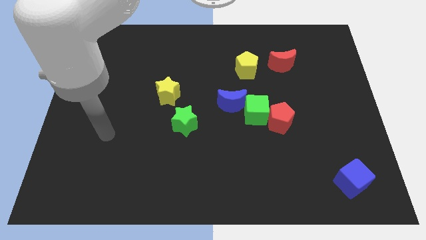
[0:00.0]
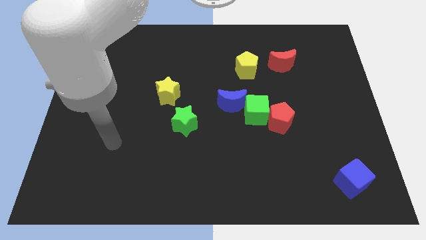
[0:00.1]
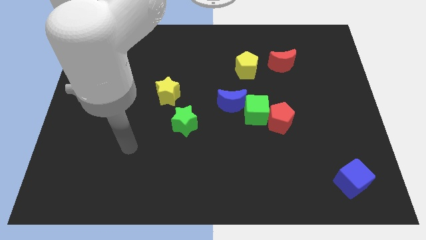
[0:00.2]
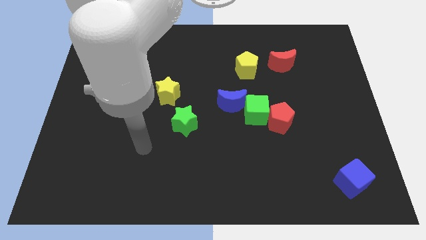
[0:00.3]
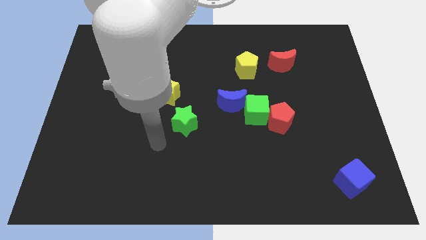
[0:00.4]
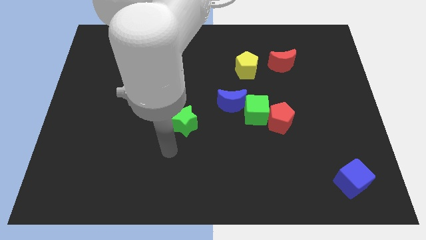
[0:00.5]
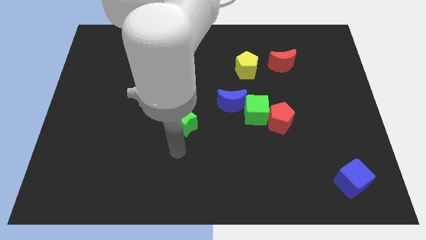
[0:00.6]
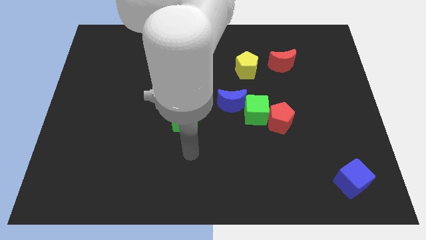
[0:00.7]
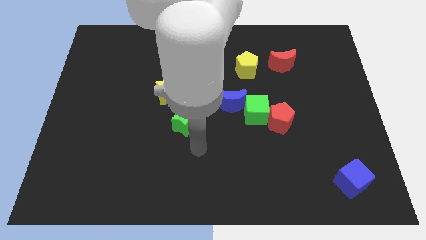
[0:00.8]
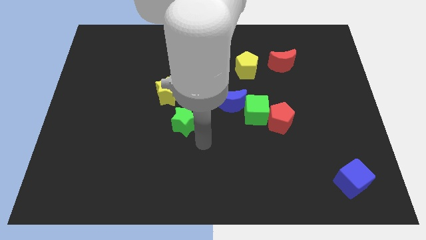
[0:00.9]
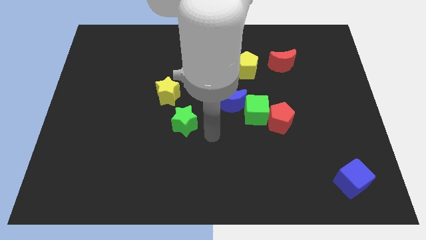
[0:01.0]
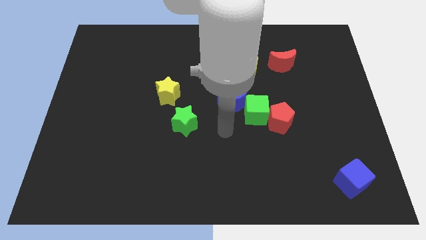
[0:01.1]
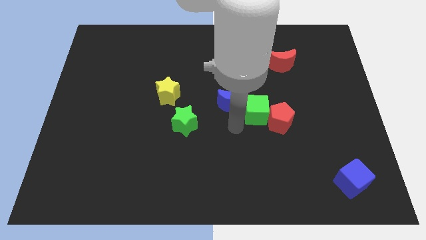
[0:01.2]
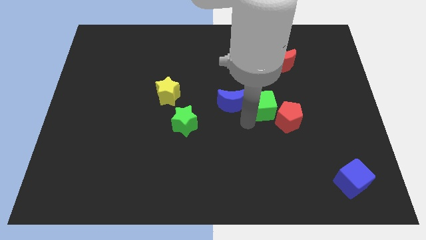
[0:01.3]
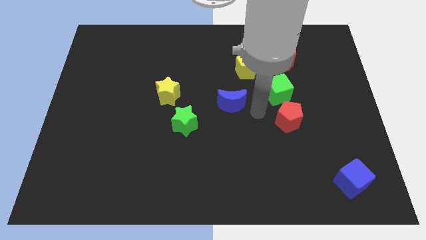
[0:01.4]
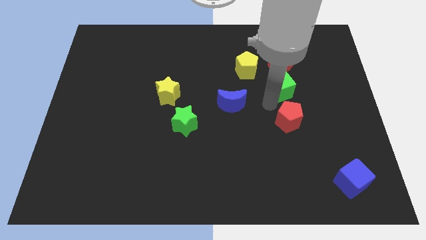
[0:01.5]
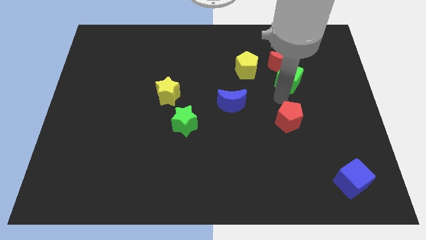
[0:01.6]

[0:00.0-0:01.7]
move the red pentagon away from the green cube

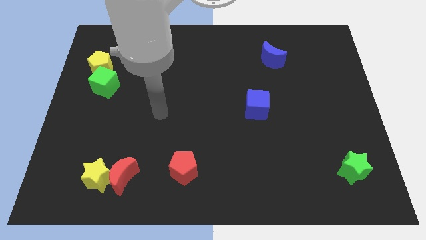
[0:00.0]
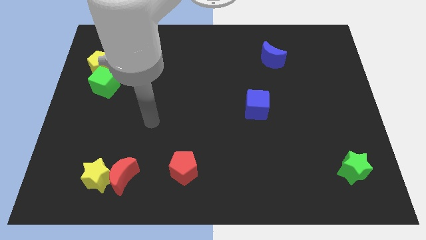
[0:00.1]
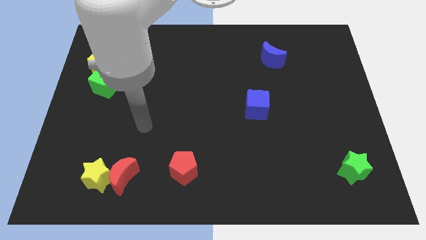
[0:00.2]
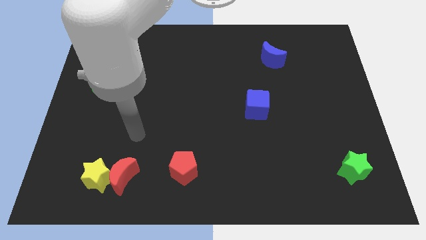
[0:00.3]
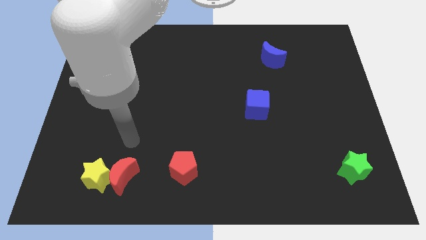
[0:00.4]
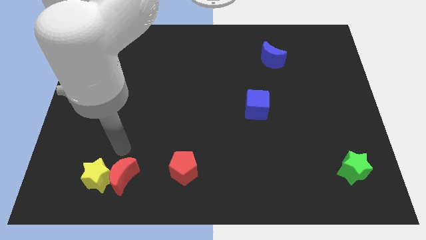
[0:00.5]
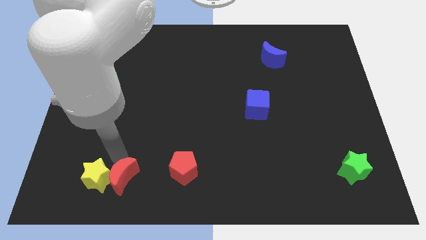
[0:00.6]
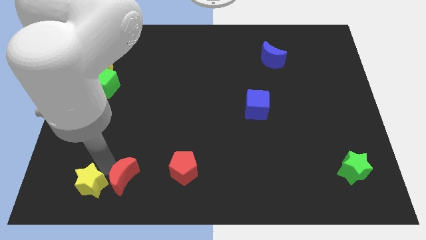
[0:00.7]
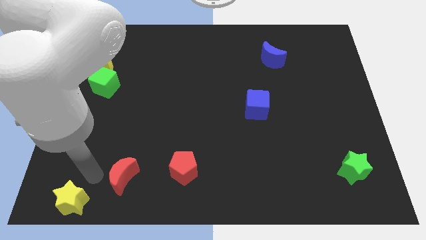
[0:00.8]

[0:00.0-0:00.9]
move the red moon away from the yellow star

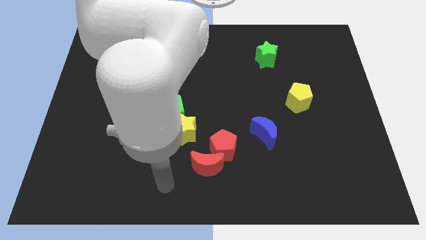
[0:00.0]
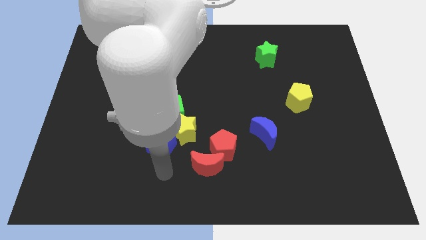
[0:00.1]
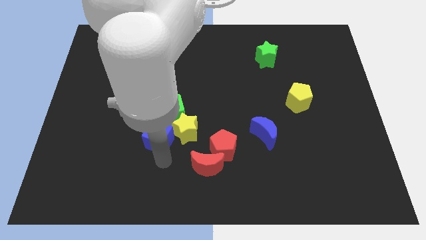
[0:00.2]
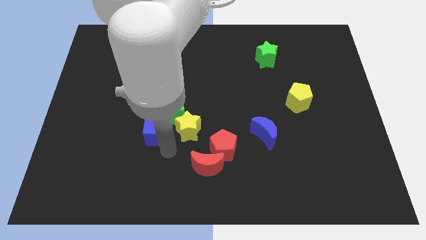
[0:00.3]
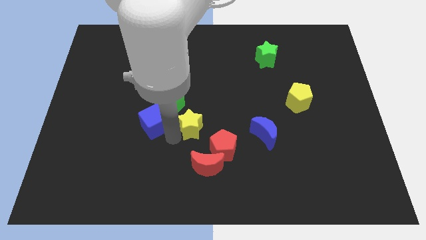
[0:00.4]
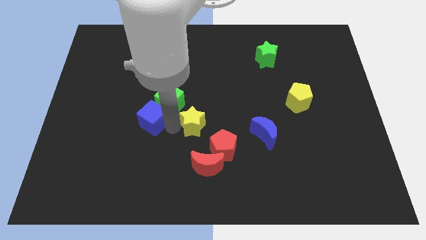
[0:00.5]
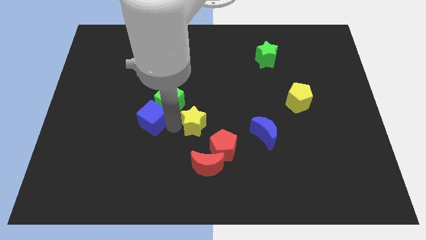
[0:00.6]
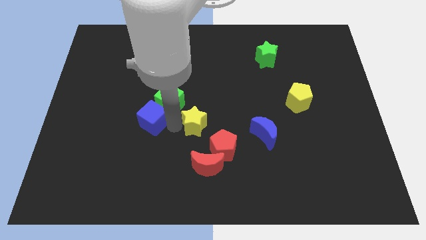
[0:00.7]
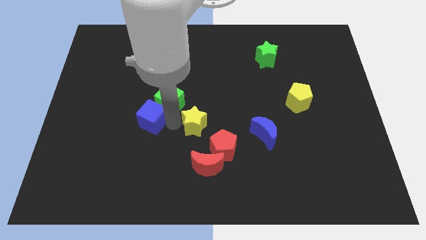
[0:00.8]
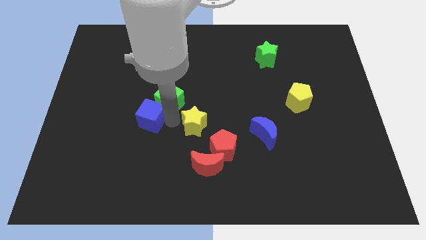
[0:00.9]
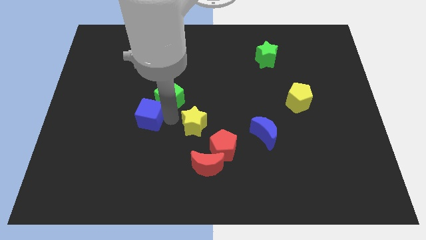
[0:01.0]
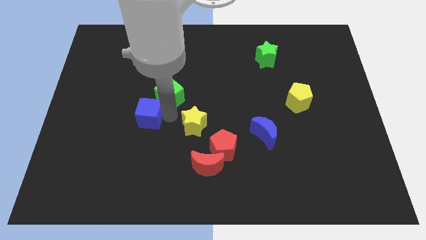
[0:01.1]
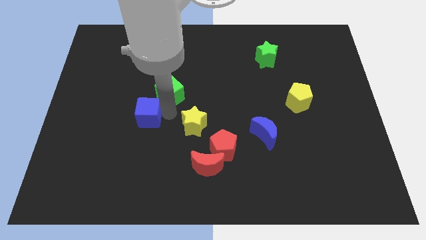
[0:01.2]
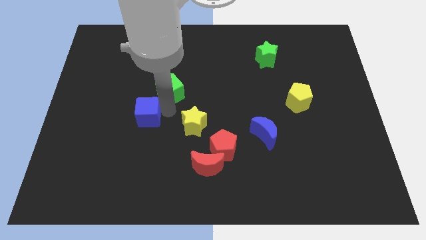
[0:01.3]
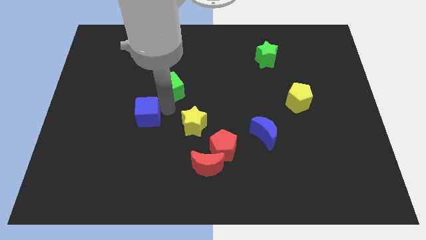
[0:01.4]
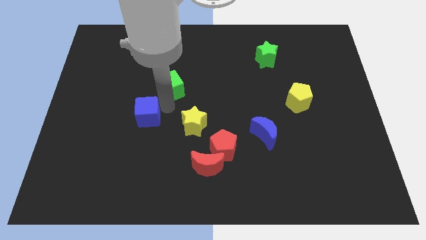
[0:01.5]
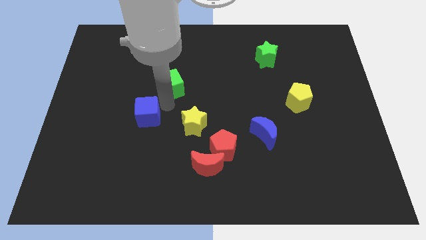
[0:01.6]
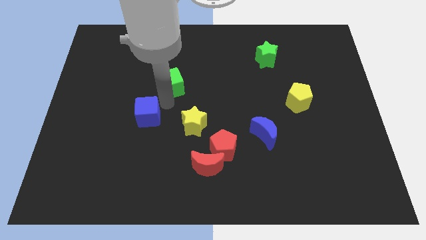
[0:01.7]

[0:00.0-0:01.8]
move the green cube away from the yellow star and blue cube

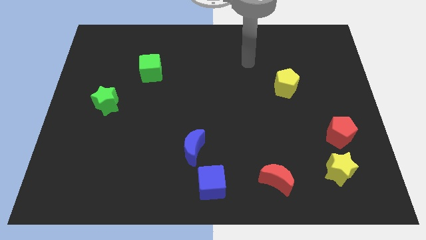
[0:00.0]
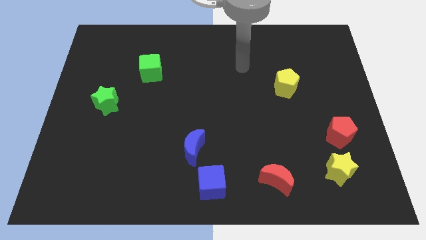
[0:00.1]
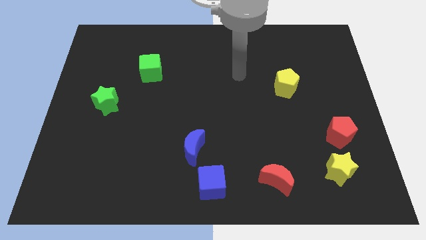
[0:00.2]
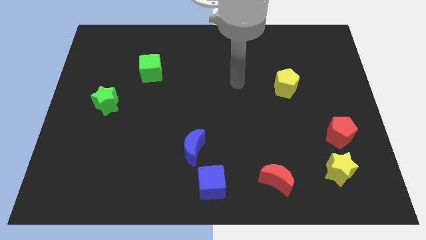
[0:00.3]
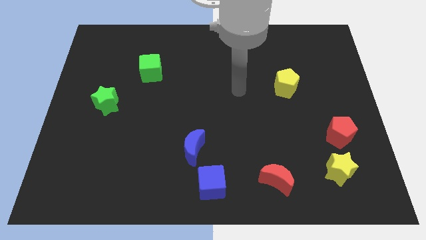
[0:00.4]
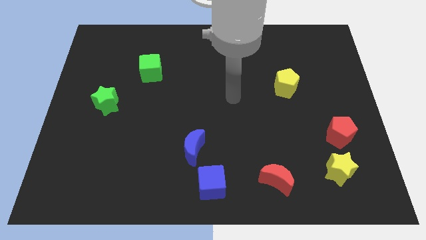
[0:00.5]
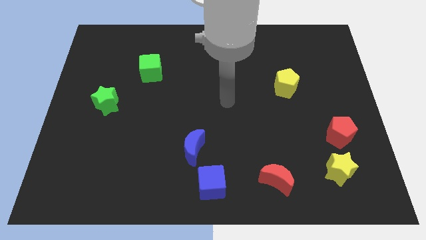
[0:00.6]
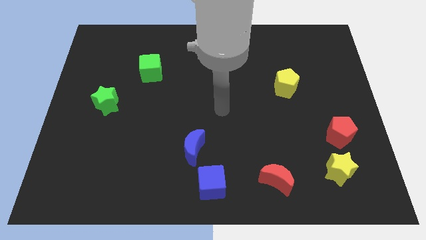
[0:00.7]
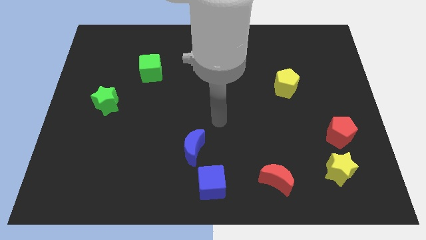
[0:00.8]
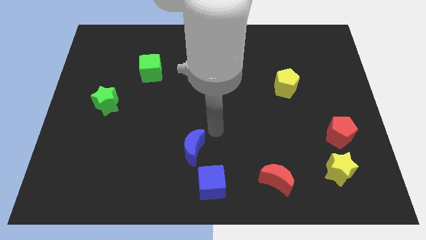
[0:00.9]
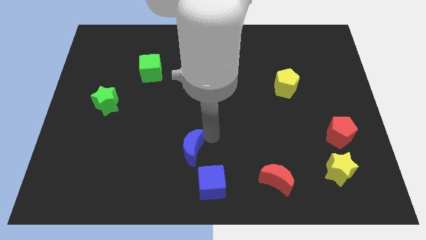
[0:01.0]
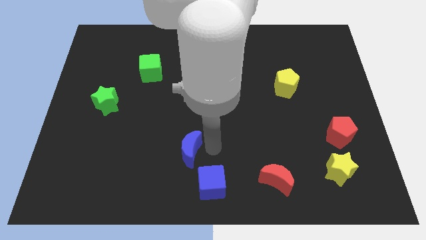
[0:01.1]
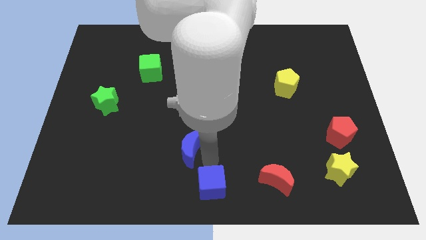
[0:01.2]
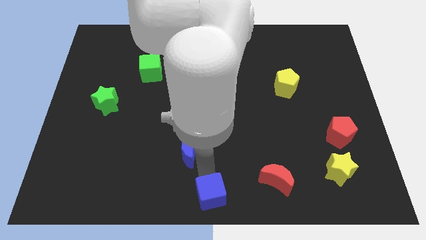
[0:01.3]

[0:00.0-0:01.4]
separate the blue moon from the blue cube

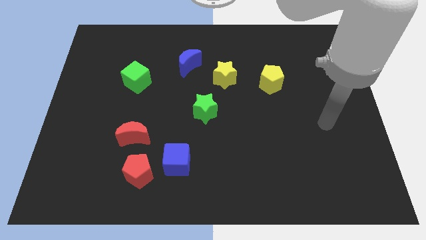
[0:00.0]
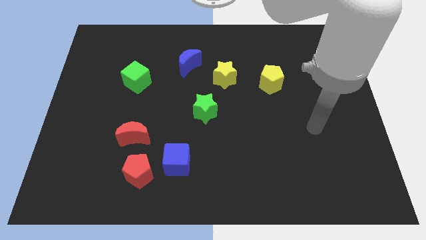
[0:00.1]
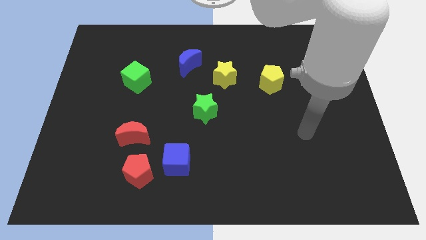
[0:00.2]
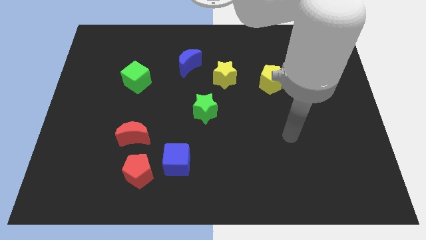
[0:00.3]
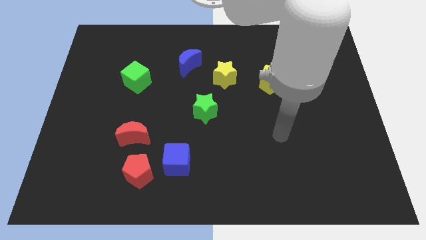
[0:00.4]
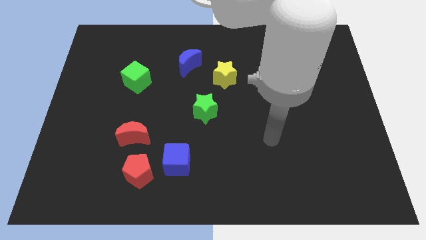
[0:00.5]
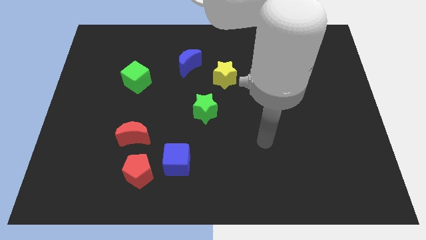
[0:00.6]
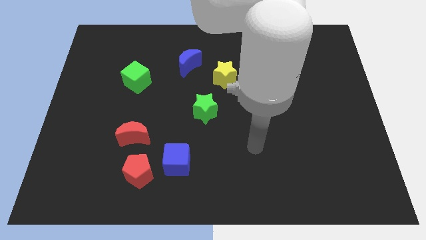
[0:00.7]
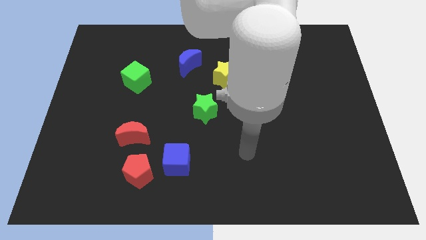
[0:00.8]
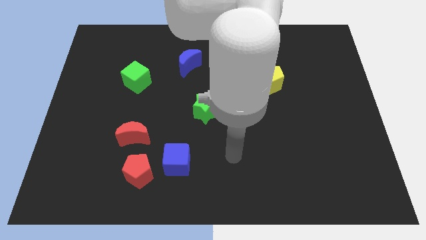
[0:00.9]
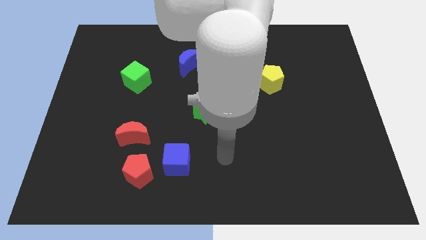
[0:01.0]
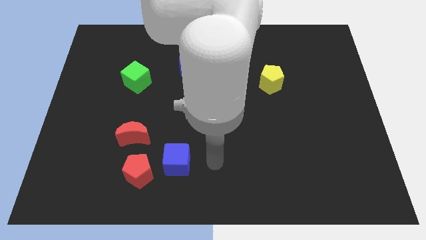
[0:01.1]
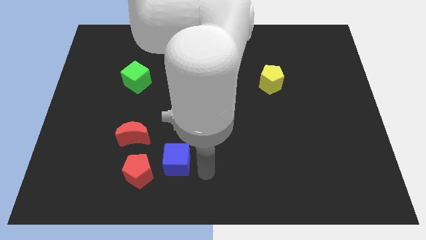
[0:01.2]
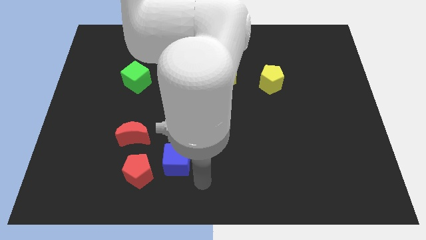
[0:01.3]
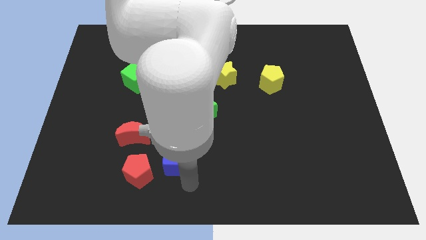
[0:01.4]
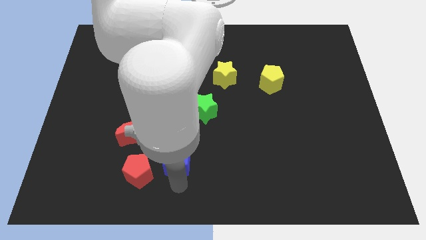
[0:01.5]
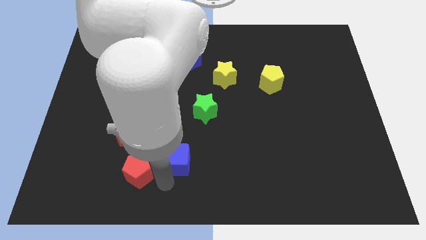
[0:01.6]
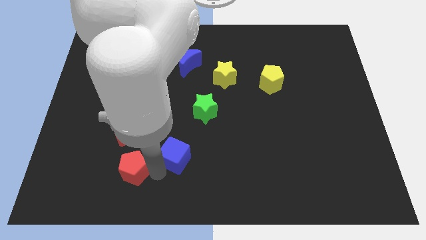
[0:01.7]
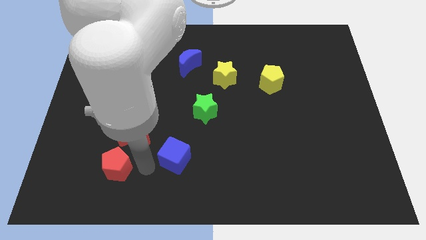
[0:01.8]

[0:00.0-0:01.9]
pull the blue cube apart from the red pentagon

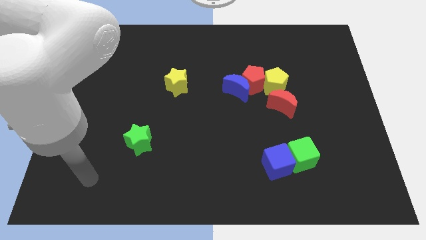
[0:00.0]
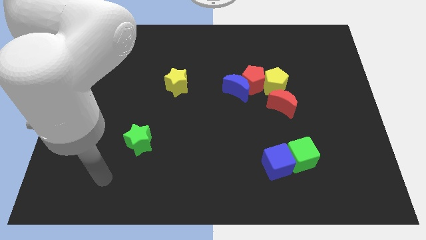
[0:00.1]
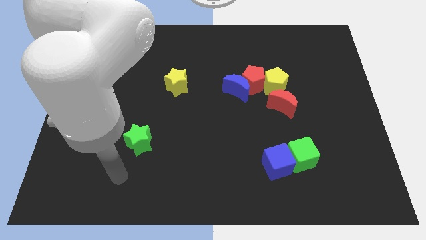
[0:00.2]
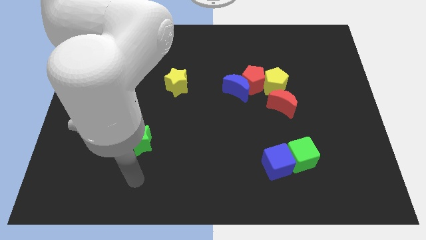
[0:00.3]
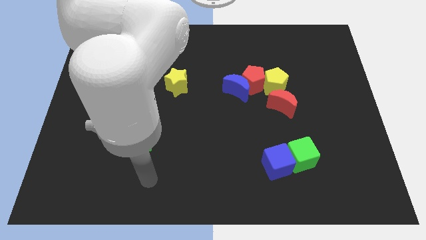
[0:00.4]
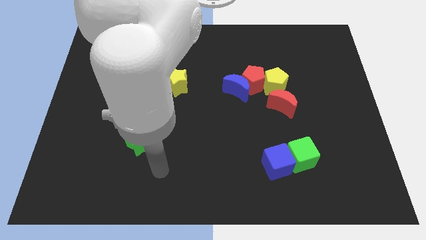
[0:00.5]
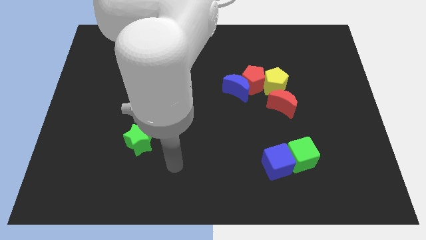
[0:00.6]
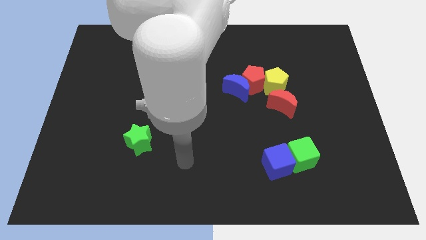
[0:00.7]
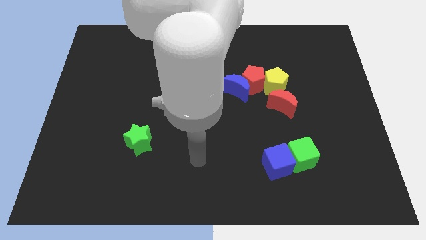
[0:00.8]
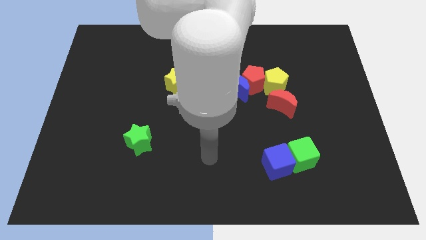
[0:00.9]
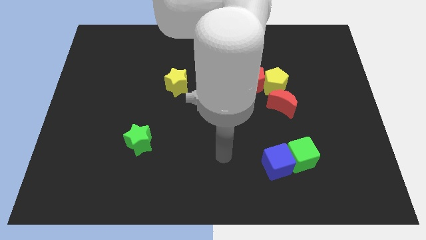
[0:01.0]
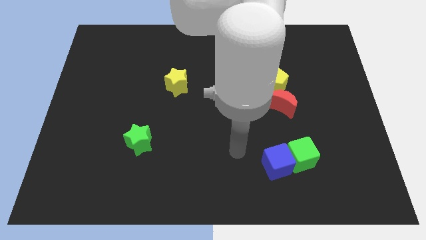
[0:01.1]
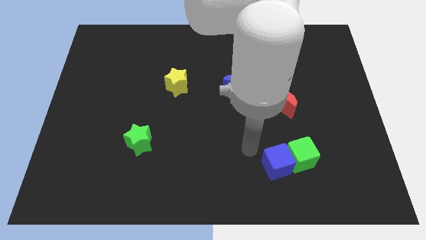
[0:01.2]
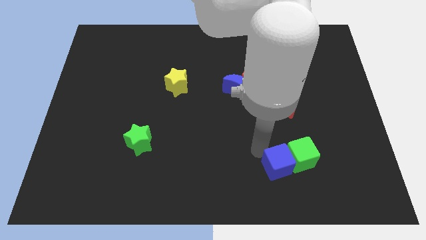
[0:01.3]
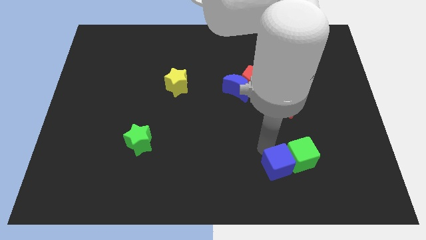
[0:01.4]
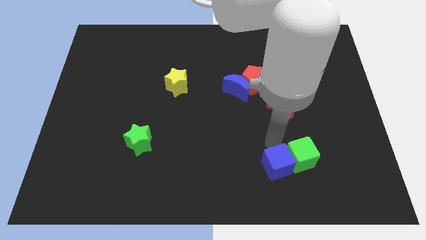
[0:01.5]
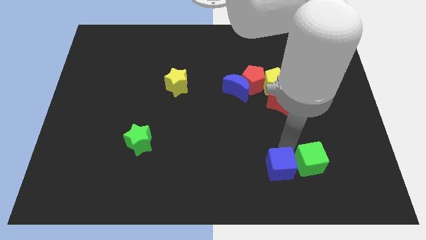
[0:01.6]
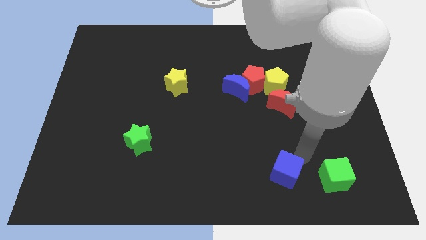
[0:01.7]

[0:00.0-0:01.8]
move the blue cube away from the green cube
